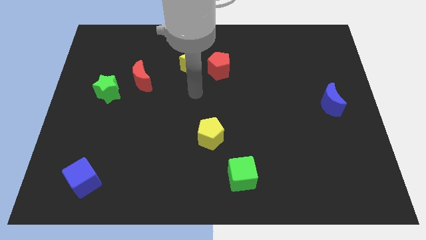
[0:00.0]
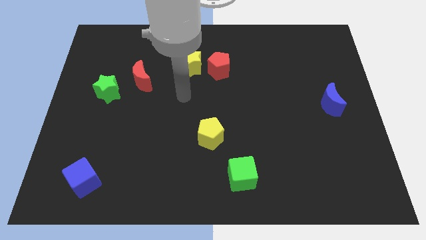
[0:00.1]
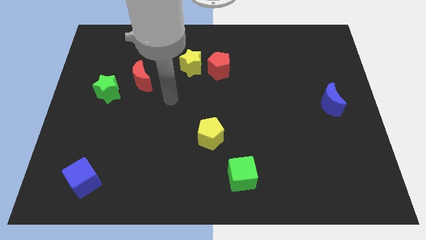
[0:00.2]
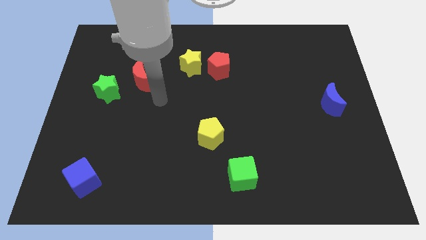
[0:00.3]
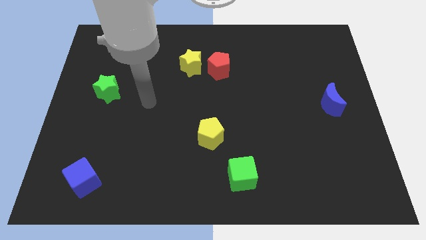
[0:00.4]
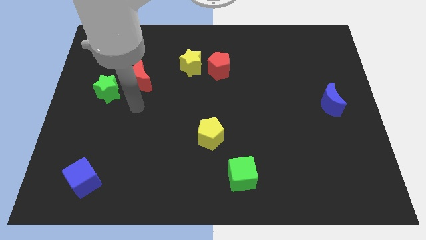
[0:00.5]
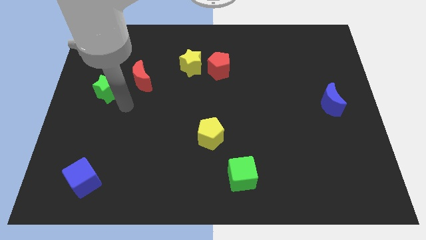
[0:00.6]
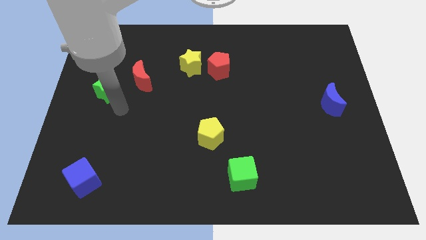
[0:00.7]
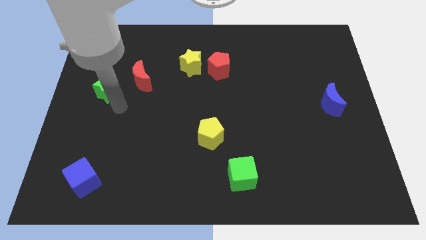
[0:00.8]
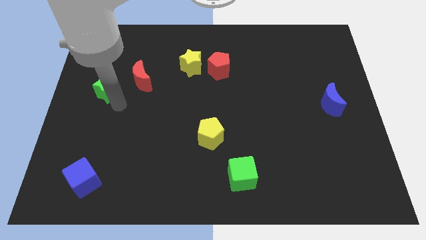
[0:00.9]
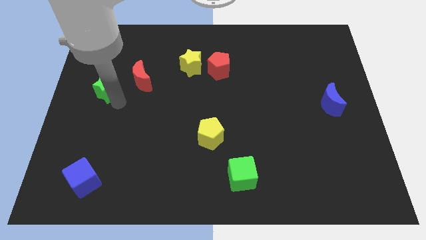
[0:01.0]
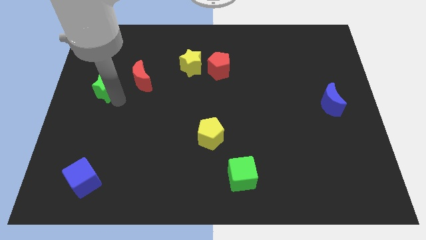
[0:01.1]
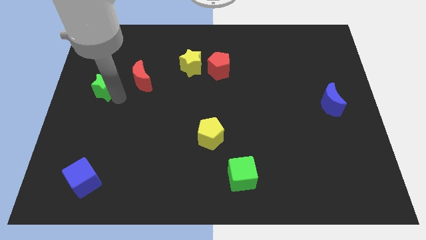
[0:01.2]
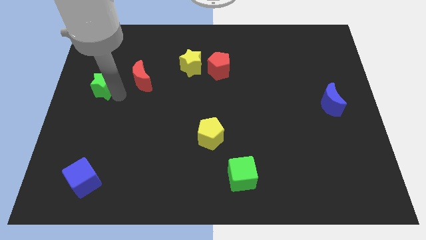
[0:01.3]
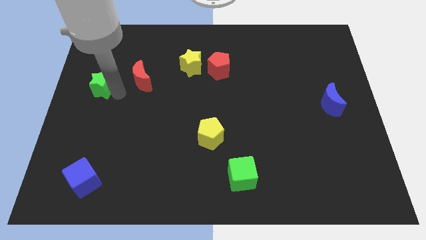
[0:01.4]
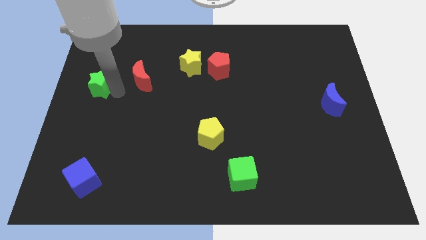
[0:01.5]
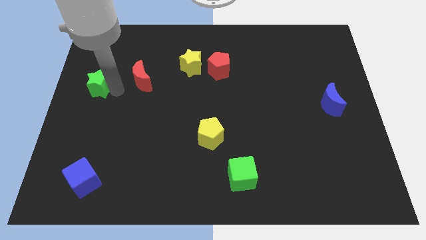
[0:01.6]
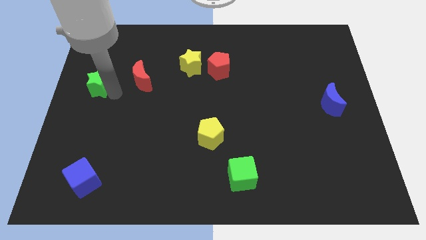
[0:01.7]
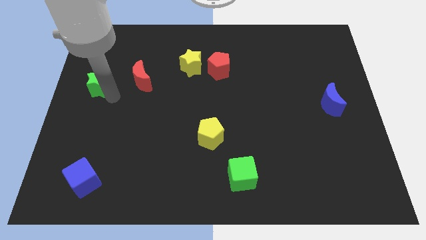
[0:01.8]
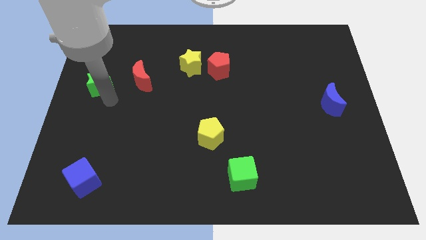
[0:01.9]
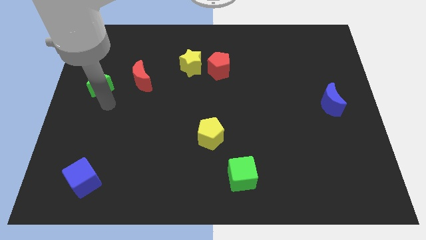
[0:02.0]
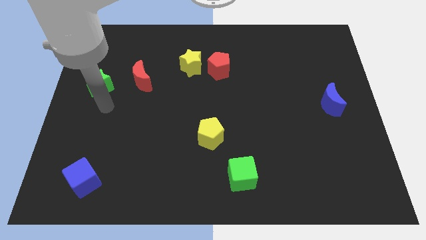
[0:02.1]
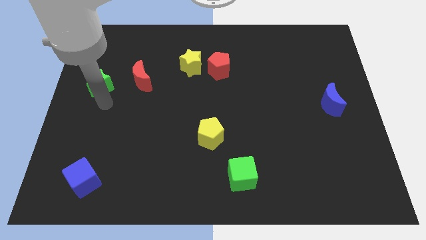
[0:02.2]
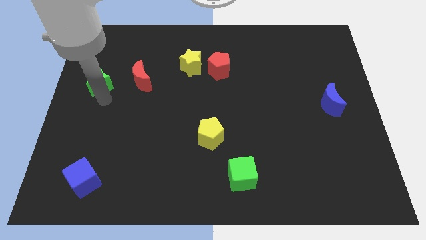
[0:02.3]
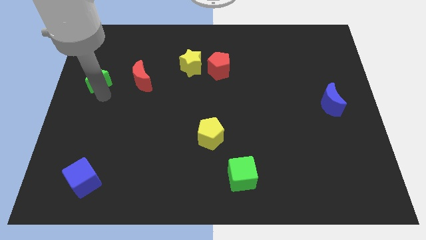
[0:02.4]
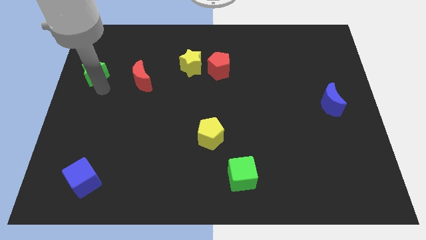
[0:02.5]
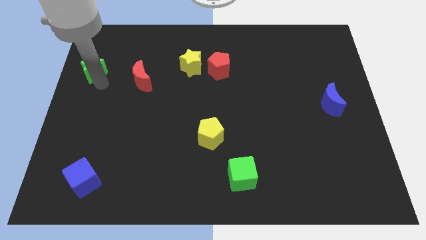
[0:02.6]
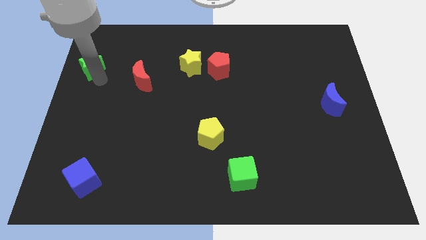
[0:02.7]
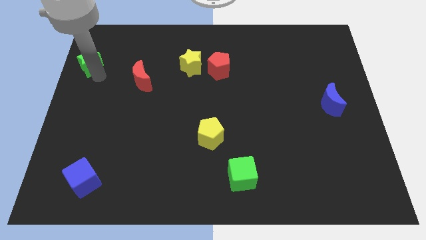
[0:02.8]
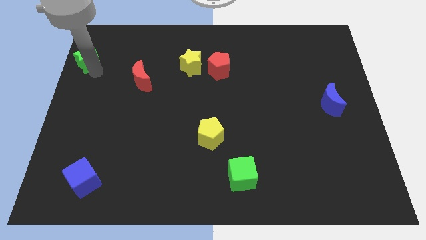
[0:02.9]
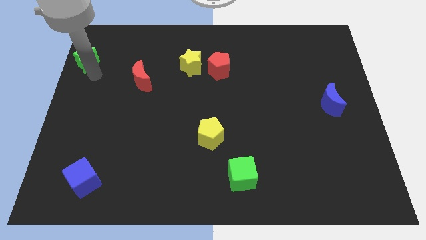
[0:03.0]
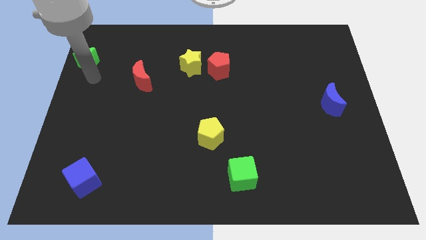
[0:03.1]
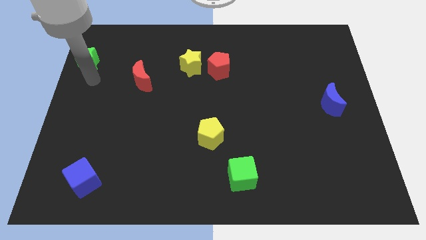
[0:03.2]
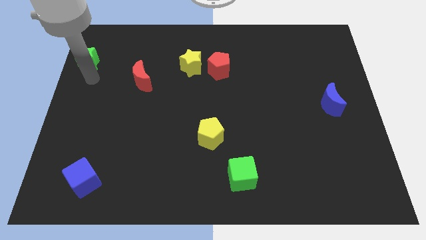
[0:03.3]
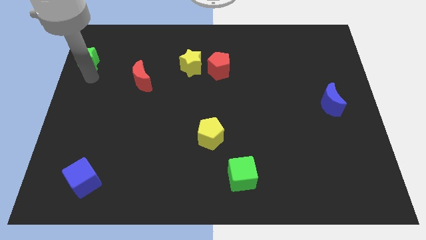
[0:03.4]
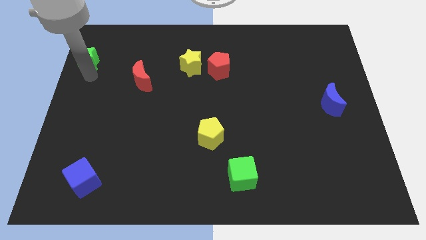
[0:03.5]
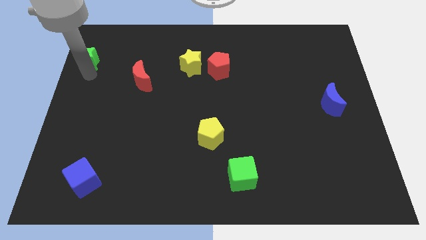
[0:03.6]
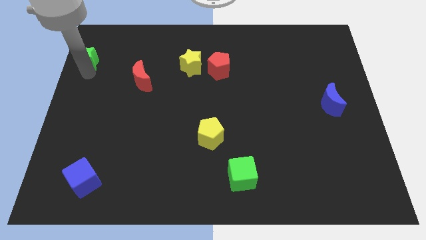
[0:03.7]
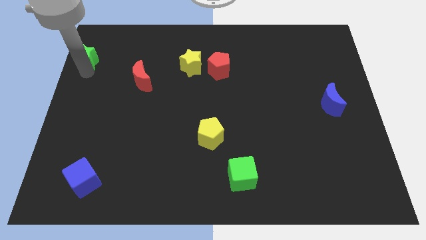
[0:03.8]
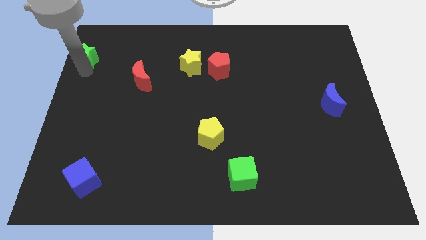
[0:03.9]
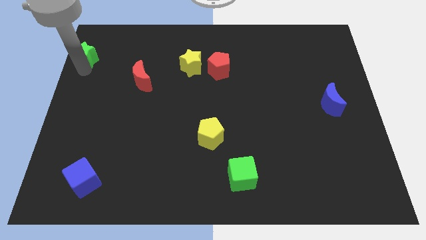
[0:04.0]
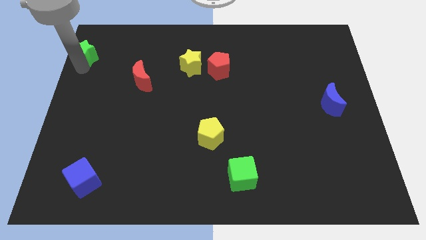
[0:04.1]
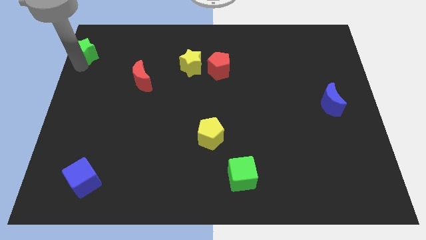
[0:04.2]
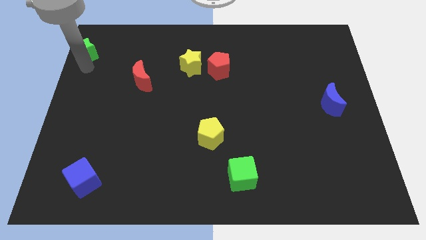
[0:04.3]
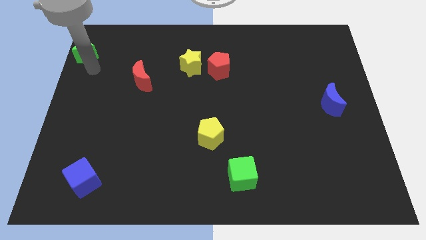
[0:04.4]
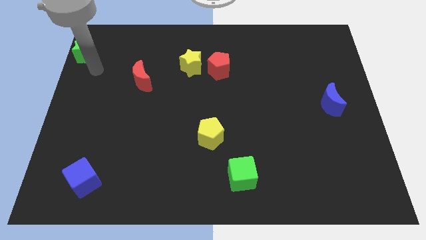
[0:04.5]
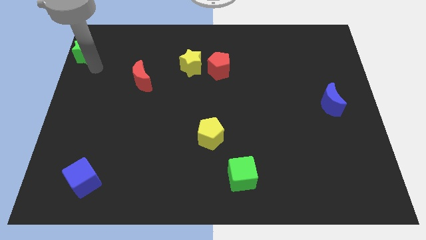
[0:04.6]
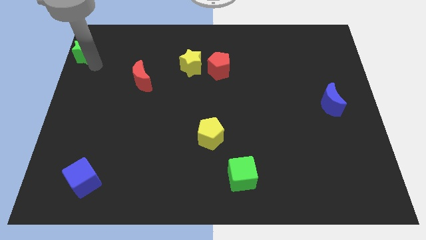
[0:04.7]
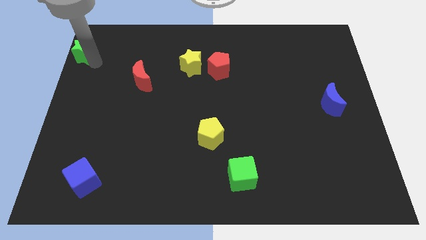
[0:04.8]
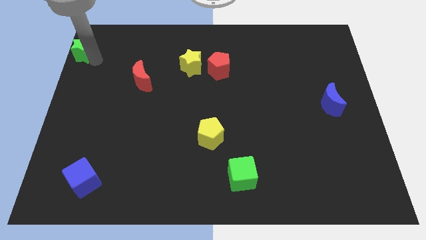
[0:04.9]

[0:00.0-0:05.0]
slide the green star to the upper left corner

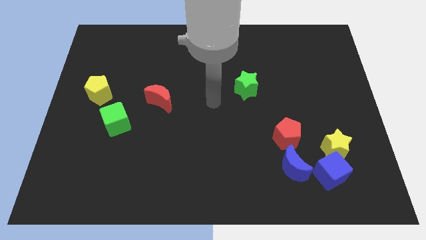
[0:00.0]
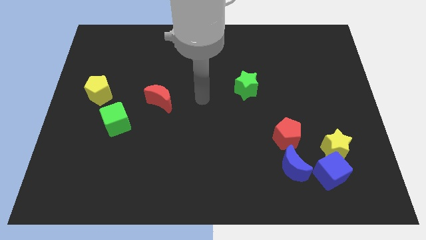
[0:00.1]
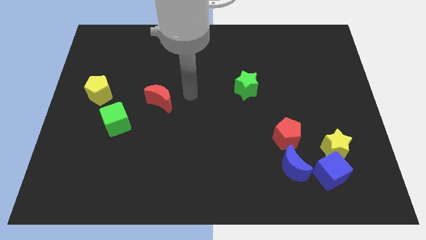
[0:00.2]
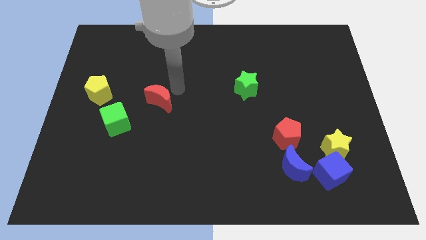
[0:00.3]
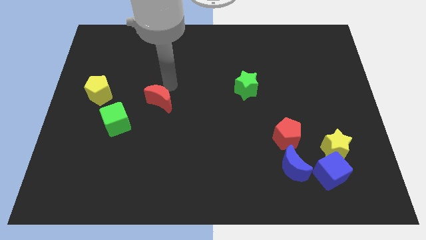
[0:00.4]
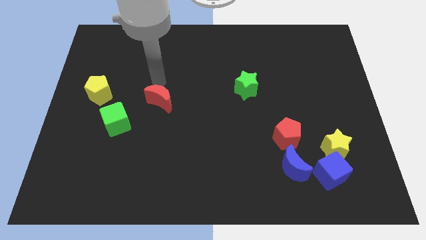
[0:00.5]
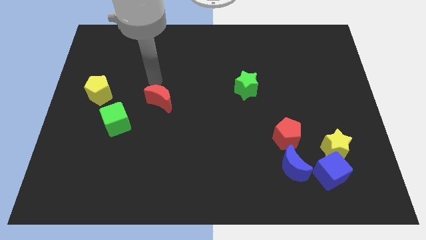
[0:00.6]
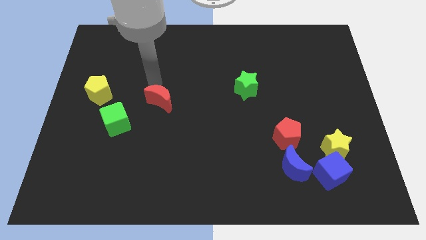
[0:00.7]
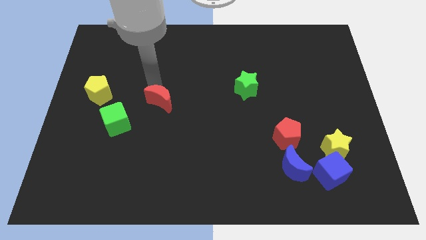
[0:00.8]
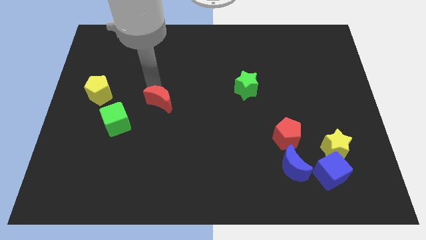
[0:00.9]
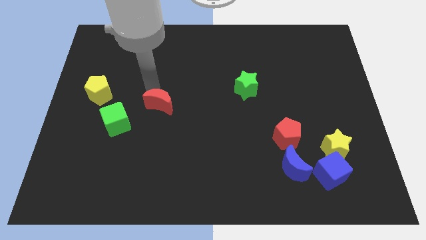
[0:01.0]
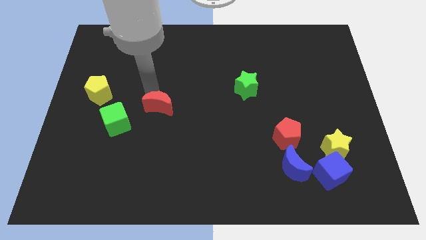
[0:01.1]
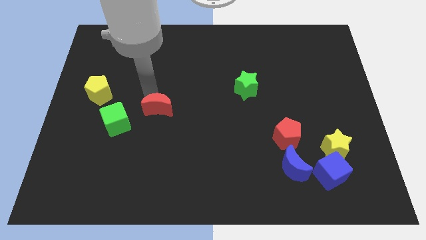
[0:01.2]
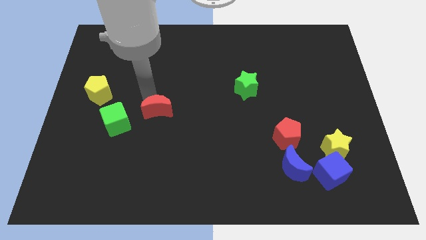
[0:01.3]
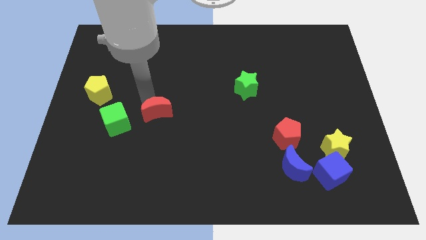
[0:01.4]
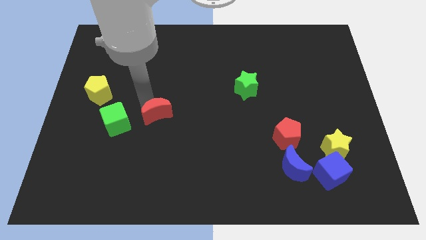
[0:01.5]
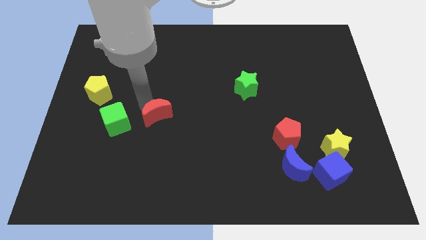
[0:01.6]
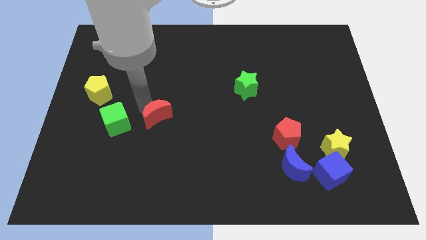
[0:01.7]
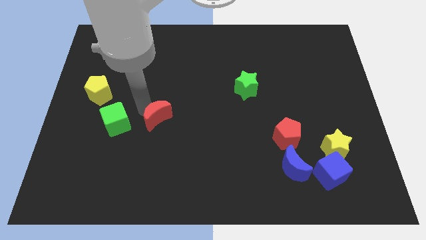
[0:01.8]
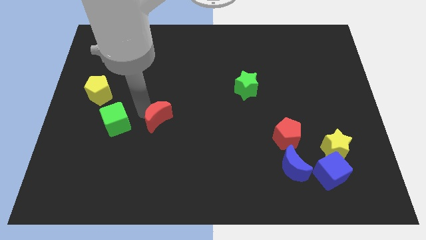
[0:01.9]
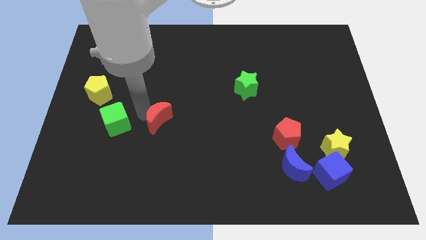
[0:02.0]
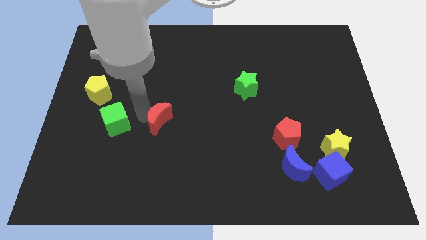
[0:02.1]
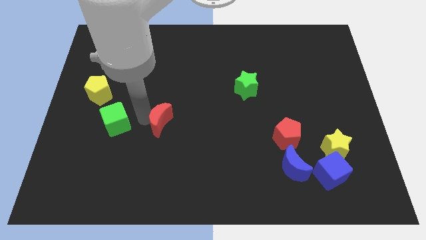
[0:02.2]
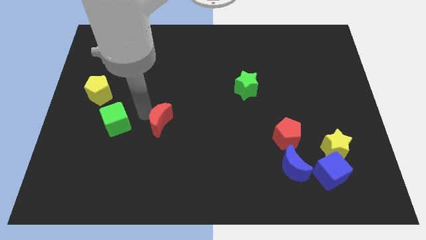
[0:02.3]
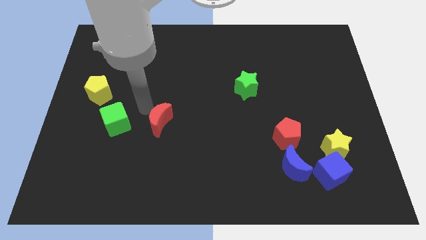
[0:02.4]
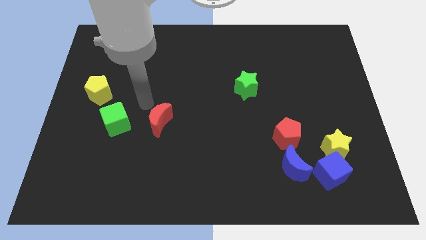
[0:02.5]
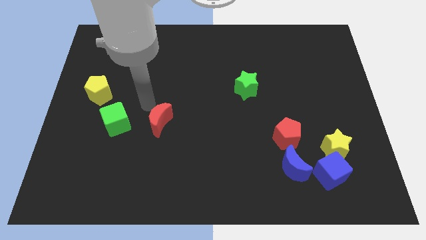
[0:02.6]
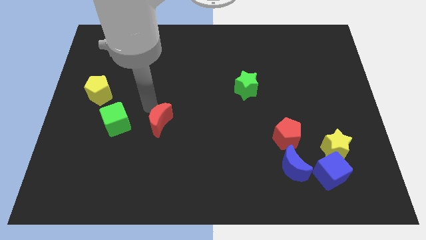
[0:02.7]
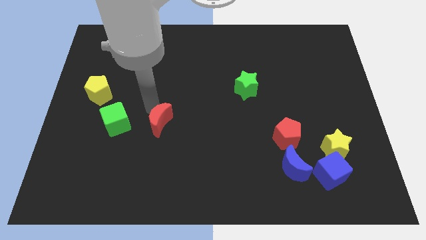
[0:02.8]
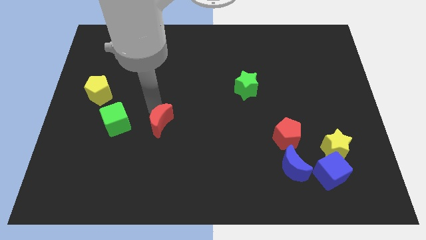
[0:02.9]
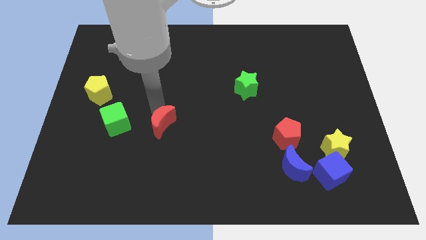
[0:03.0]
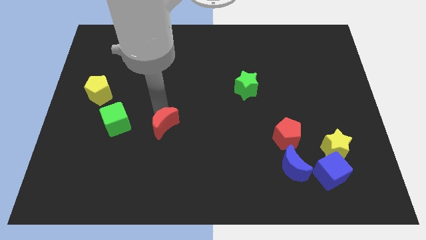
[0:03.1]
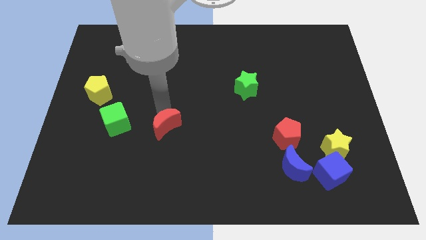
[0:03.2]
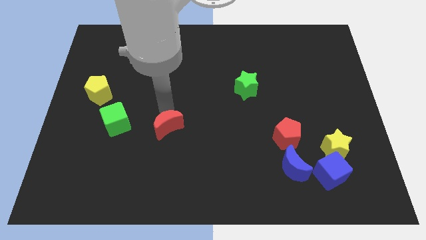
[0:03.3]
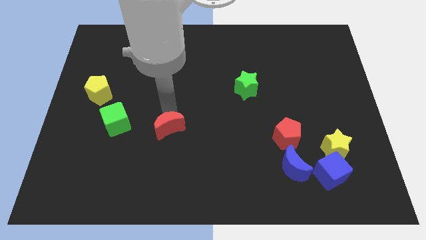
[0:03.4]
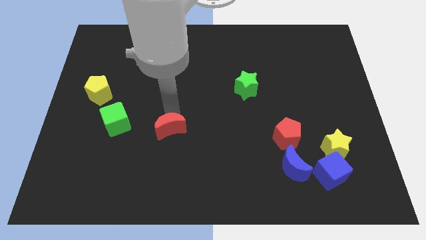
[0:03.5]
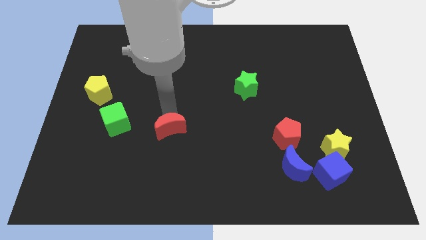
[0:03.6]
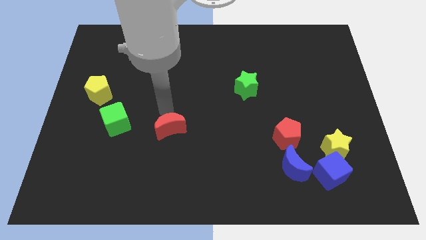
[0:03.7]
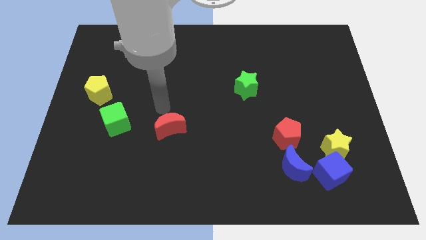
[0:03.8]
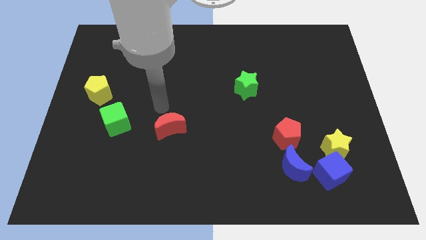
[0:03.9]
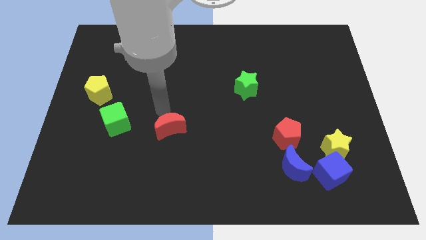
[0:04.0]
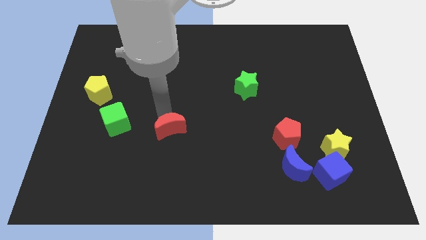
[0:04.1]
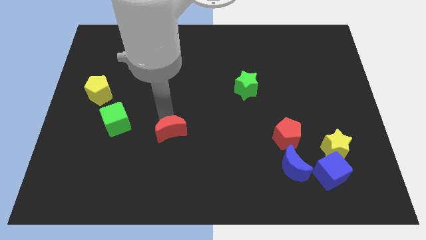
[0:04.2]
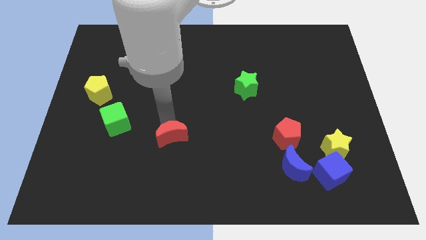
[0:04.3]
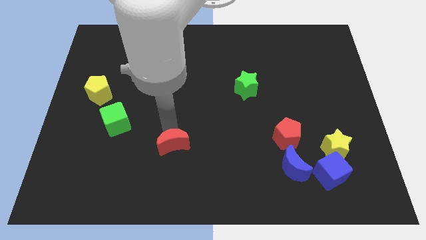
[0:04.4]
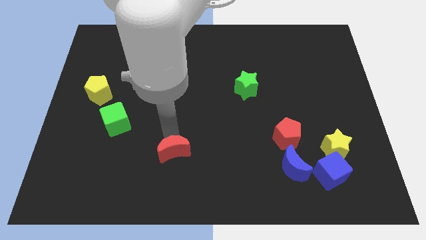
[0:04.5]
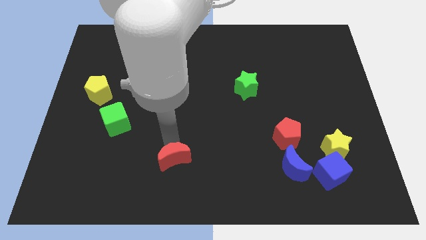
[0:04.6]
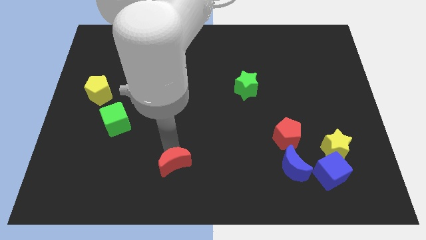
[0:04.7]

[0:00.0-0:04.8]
slide the red moon to the bottom side
